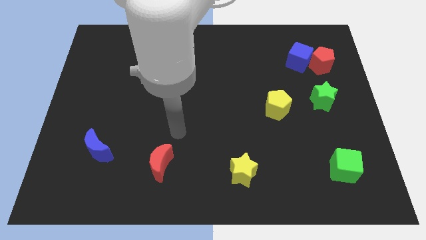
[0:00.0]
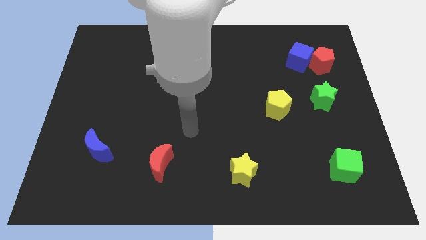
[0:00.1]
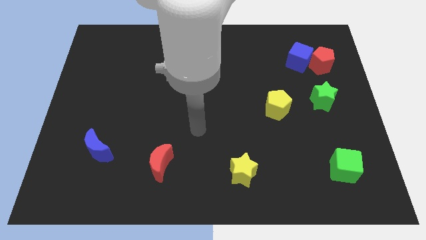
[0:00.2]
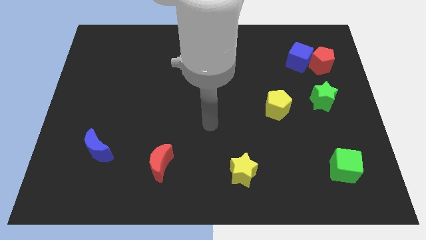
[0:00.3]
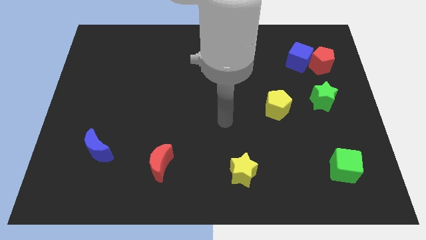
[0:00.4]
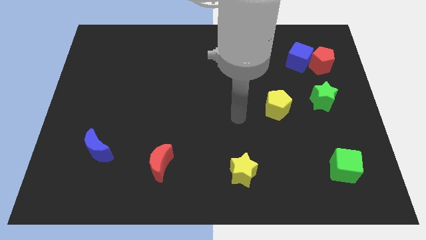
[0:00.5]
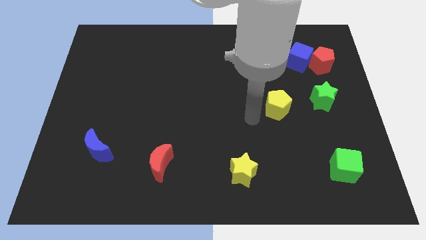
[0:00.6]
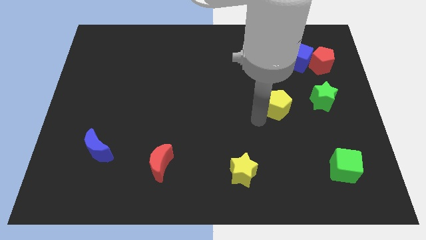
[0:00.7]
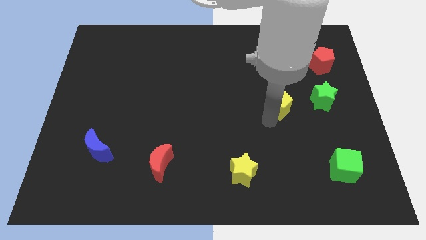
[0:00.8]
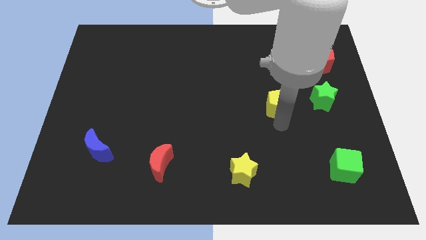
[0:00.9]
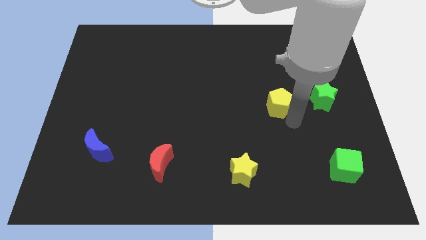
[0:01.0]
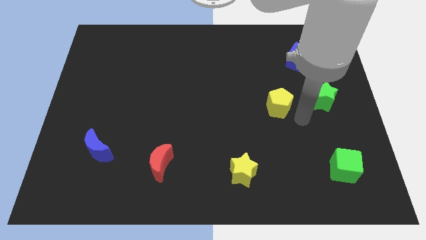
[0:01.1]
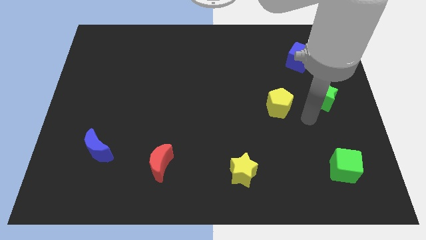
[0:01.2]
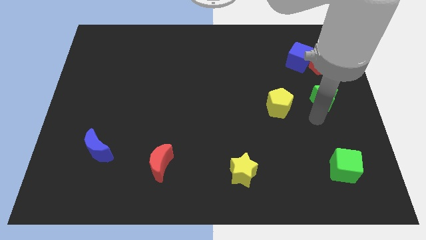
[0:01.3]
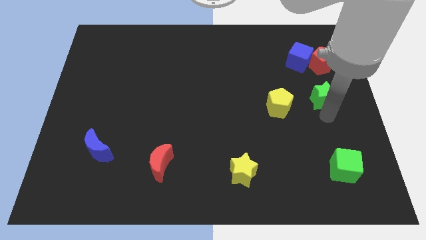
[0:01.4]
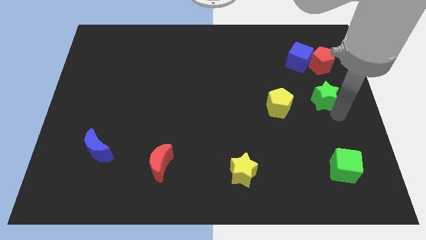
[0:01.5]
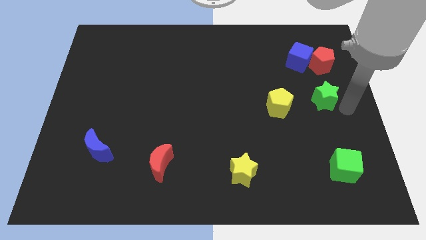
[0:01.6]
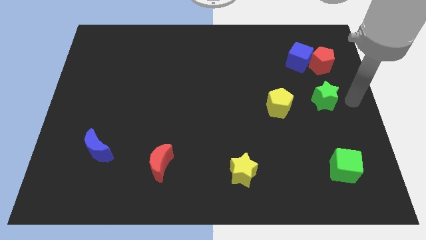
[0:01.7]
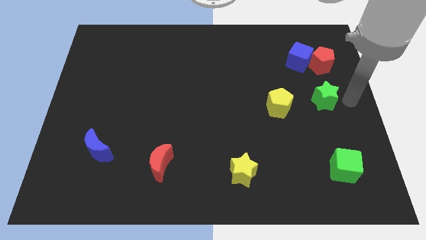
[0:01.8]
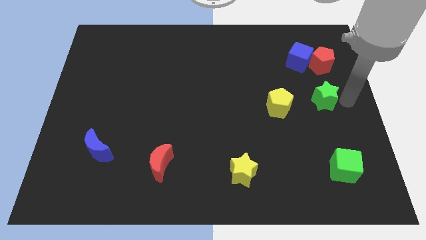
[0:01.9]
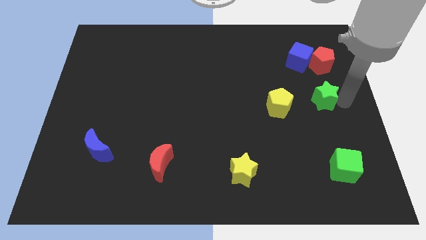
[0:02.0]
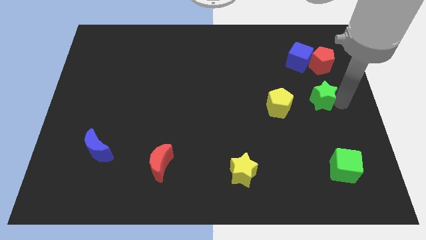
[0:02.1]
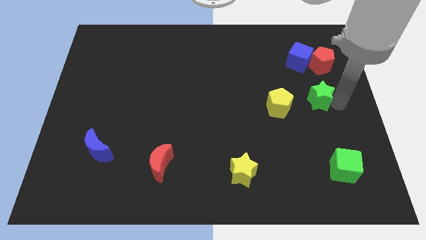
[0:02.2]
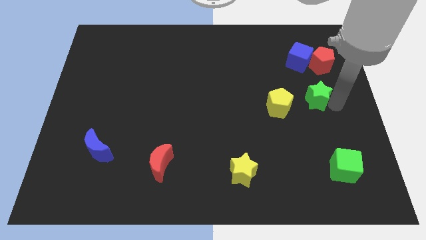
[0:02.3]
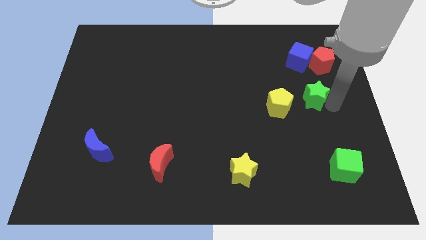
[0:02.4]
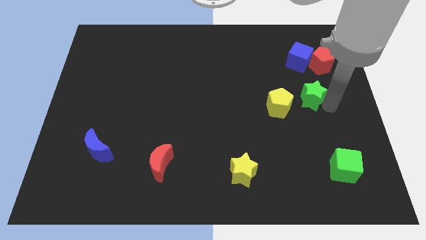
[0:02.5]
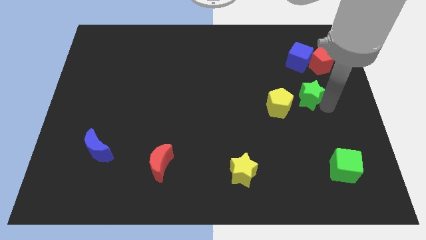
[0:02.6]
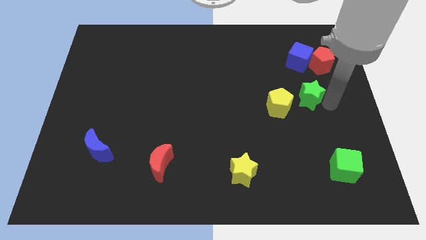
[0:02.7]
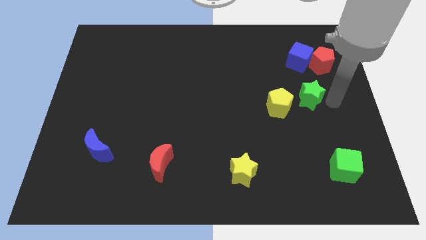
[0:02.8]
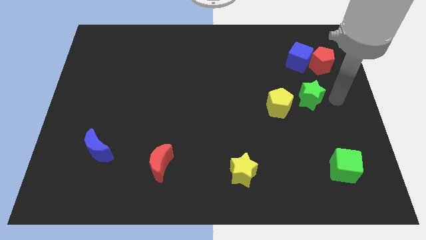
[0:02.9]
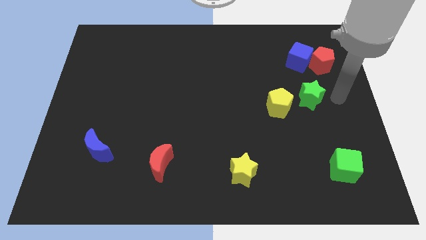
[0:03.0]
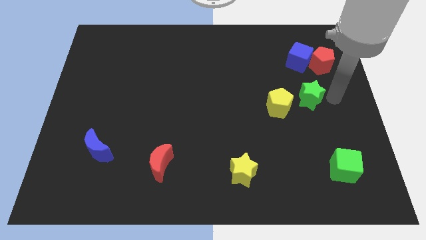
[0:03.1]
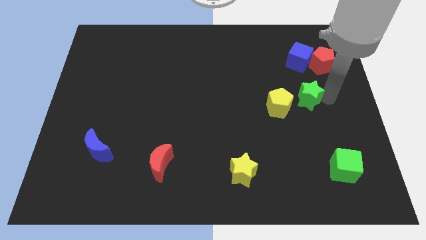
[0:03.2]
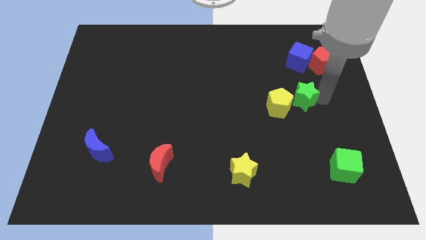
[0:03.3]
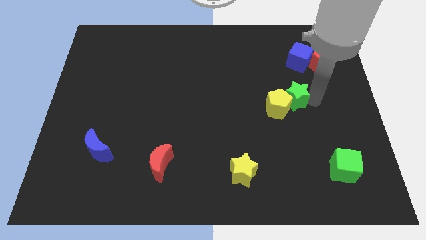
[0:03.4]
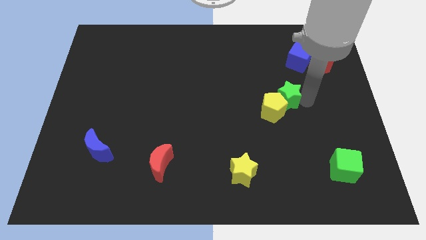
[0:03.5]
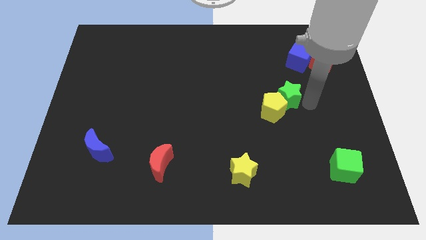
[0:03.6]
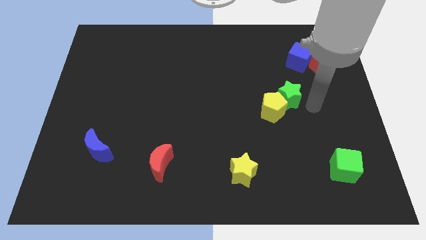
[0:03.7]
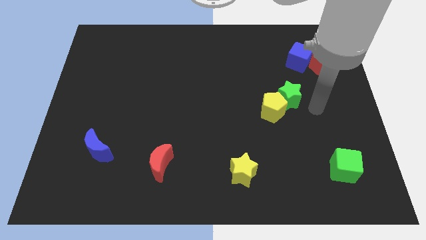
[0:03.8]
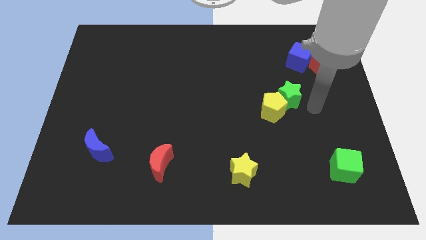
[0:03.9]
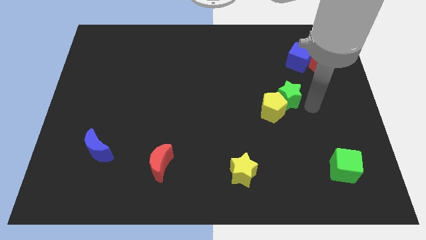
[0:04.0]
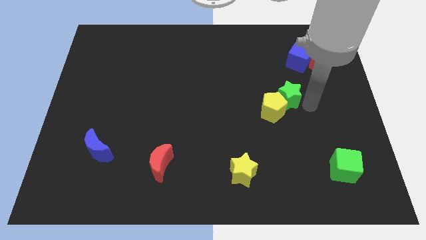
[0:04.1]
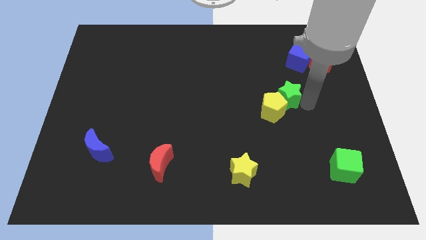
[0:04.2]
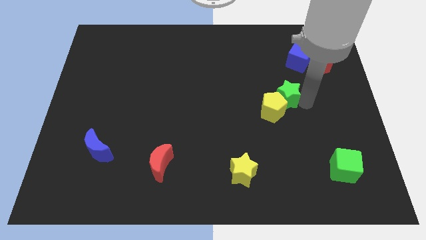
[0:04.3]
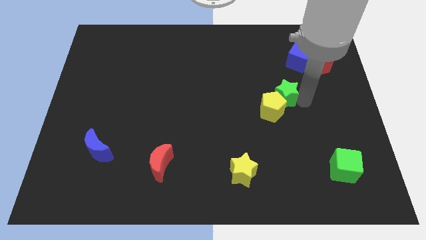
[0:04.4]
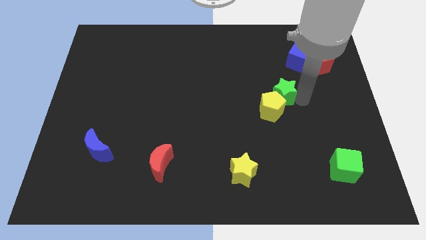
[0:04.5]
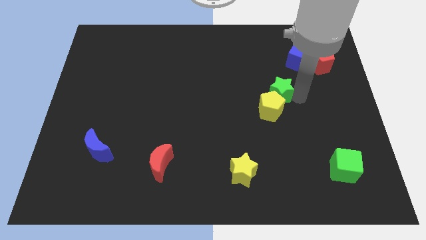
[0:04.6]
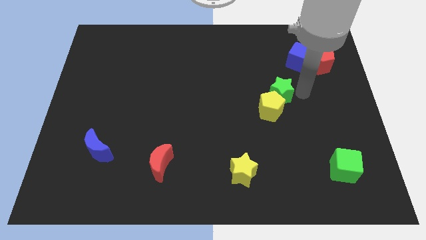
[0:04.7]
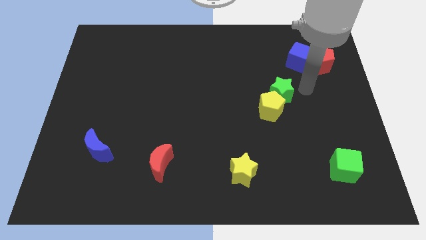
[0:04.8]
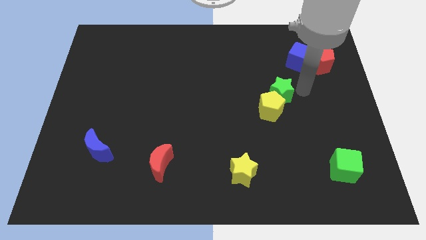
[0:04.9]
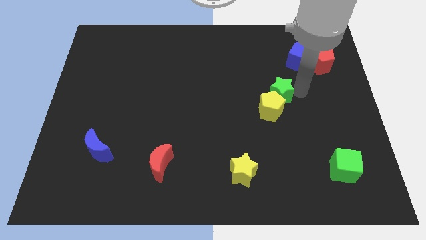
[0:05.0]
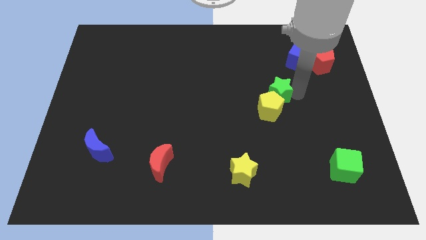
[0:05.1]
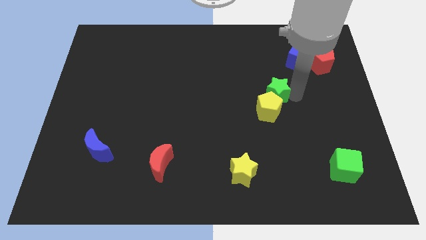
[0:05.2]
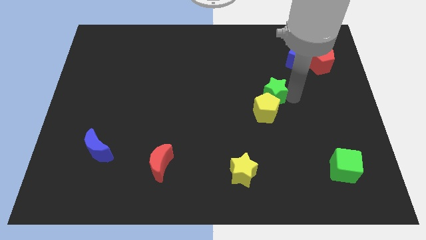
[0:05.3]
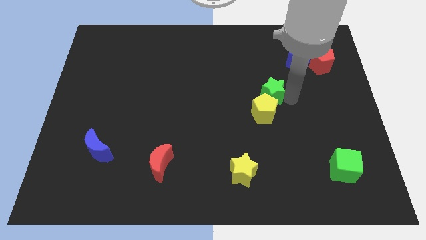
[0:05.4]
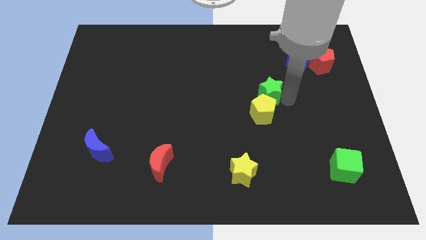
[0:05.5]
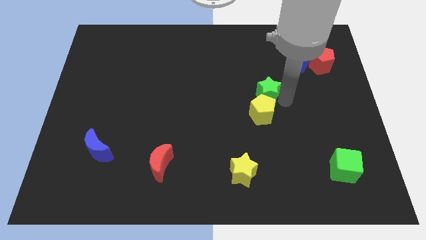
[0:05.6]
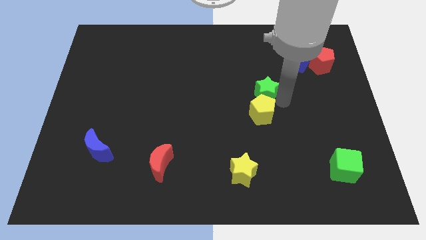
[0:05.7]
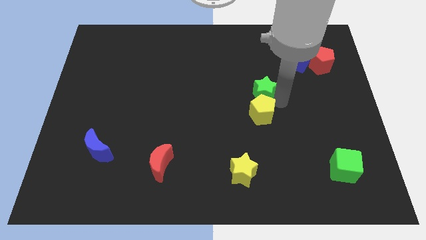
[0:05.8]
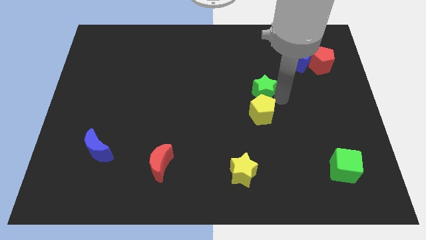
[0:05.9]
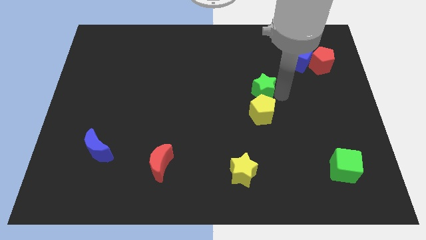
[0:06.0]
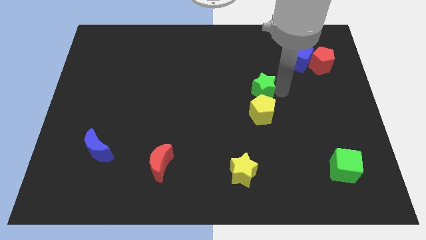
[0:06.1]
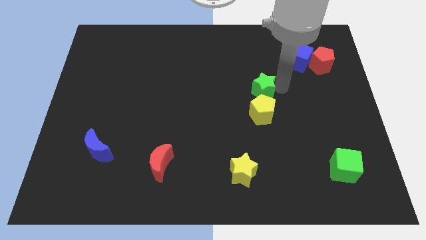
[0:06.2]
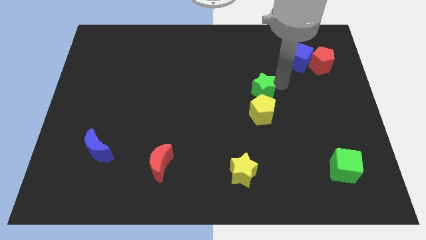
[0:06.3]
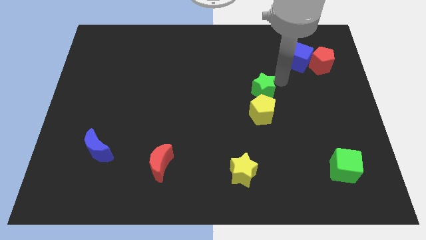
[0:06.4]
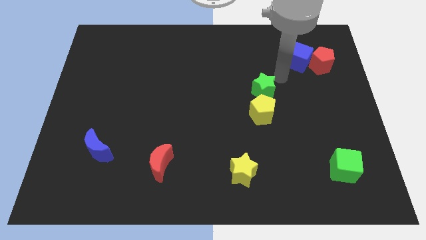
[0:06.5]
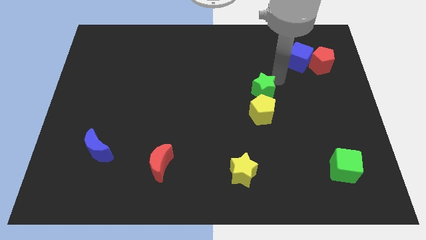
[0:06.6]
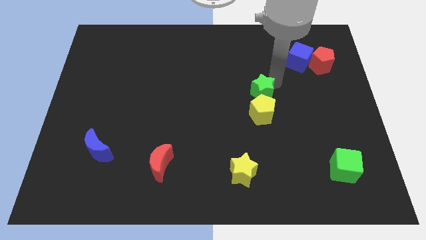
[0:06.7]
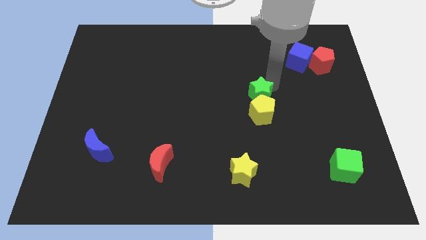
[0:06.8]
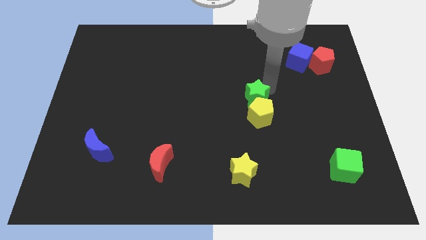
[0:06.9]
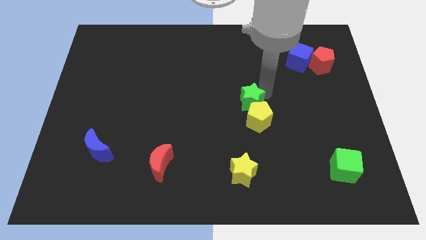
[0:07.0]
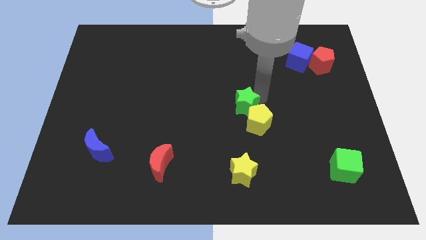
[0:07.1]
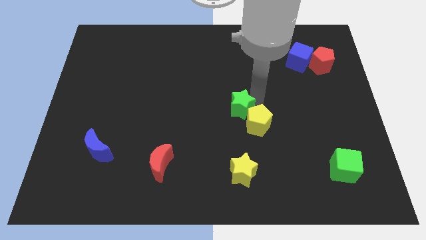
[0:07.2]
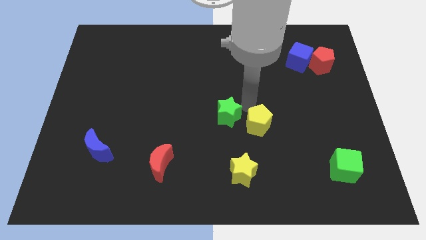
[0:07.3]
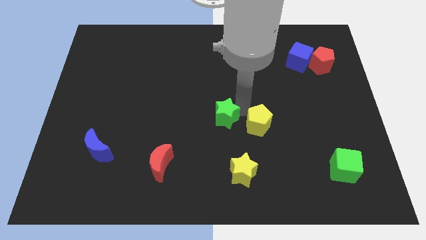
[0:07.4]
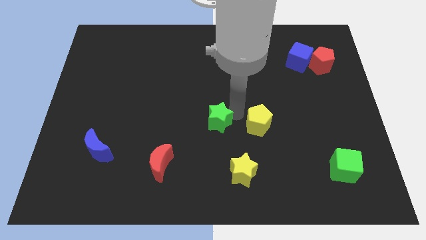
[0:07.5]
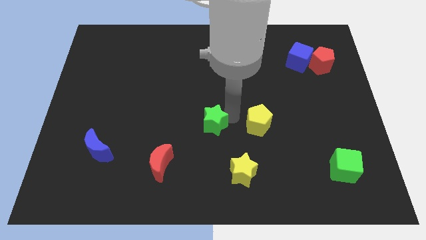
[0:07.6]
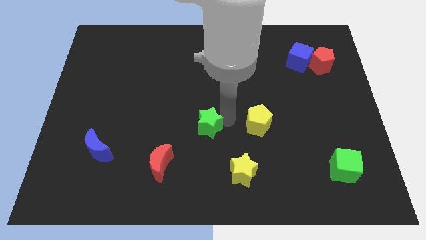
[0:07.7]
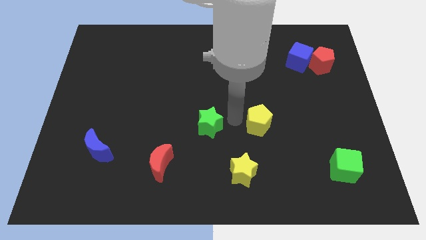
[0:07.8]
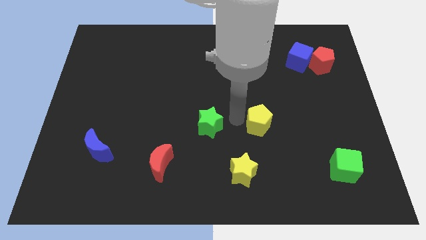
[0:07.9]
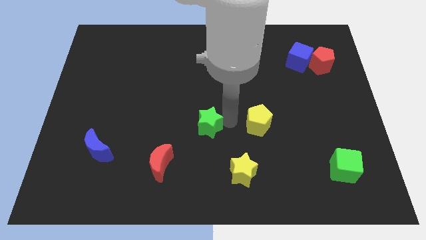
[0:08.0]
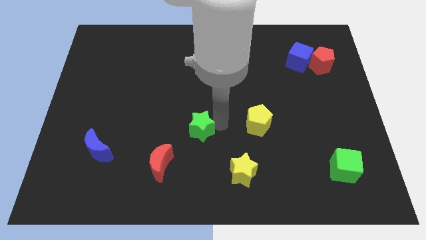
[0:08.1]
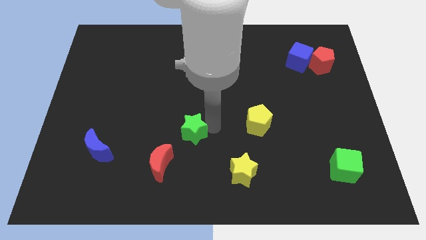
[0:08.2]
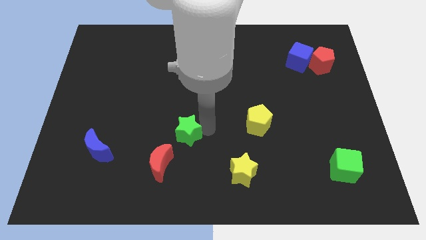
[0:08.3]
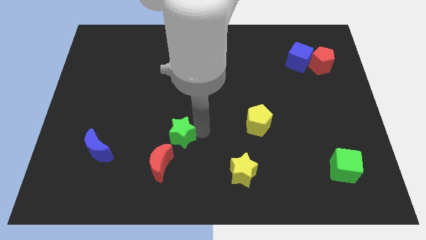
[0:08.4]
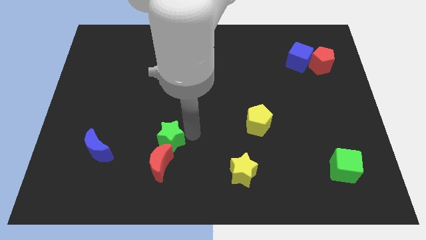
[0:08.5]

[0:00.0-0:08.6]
move the green star just right of the blue moon
